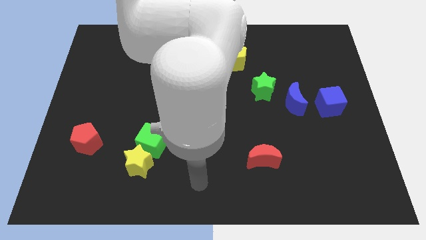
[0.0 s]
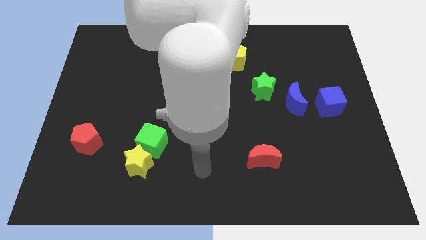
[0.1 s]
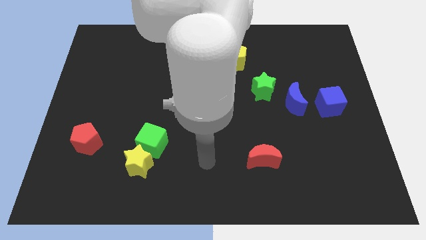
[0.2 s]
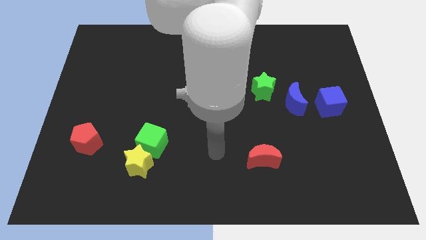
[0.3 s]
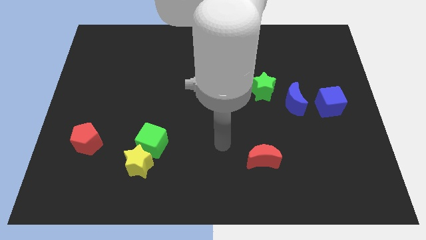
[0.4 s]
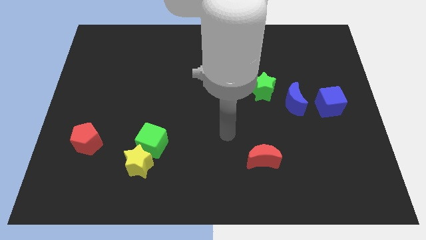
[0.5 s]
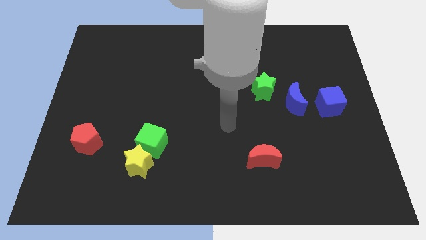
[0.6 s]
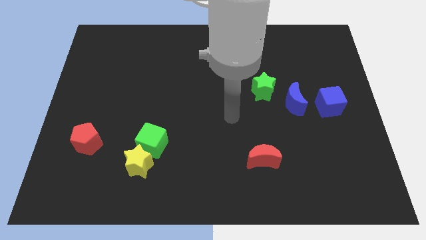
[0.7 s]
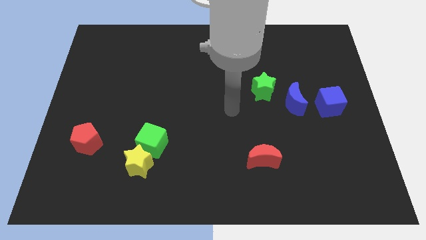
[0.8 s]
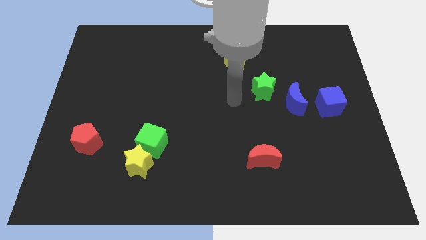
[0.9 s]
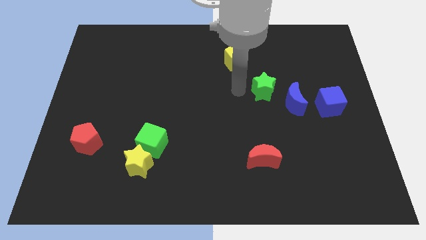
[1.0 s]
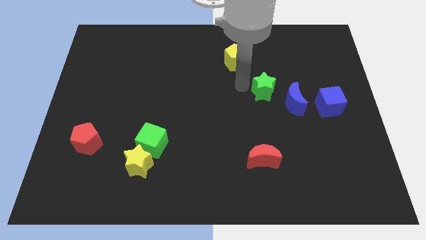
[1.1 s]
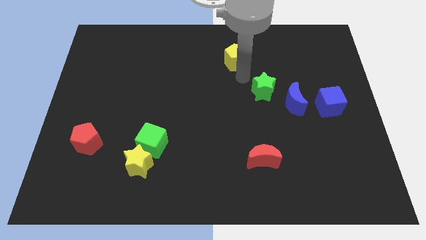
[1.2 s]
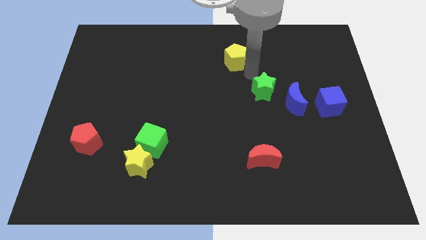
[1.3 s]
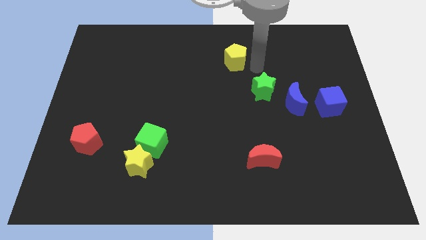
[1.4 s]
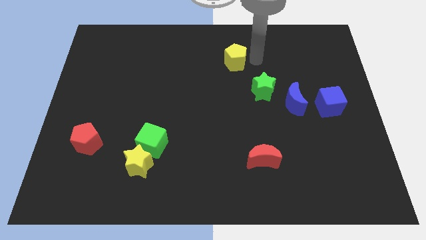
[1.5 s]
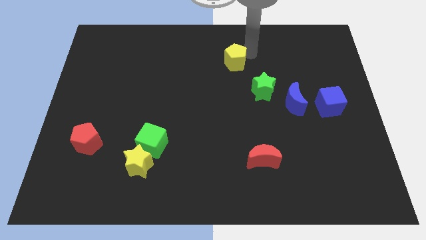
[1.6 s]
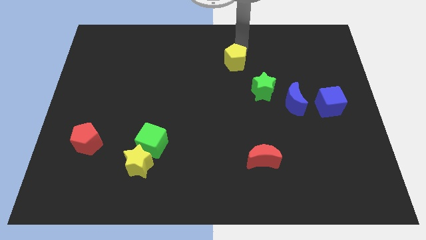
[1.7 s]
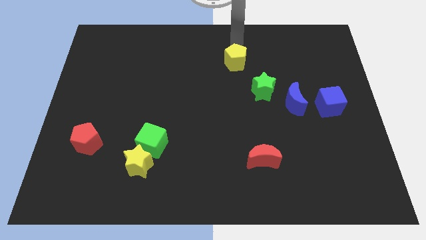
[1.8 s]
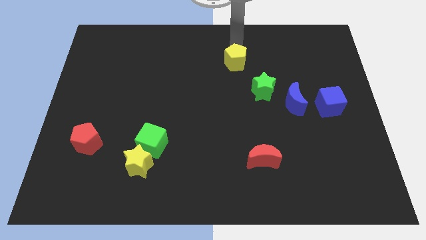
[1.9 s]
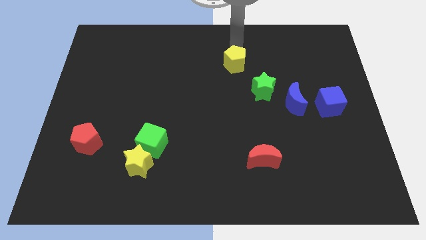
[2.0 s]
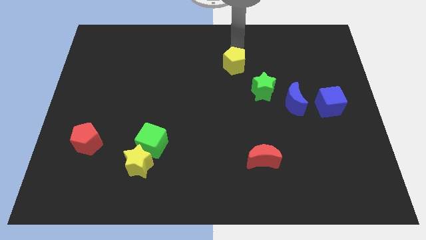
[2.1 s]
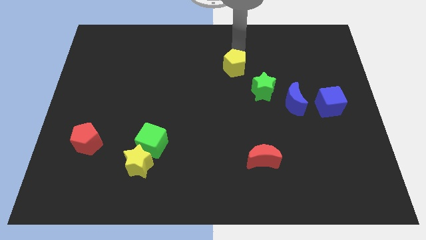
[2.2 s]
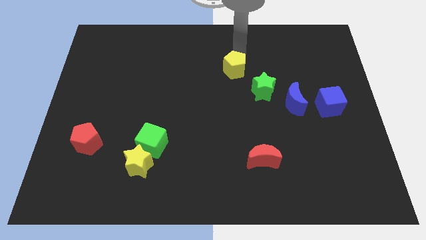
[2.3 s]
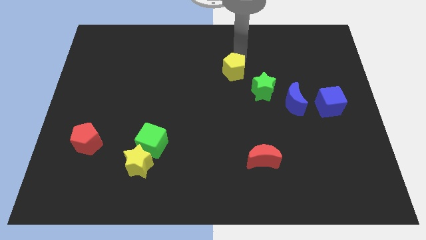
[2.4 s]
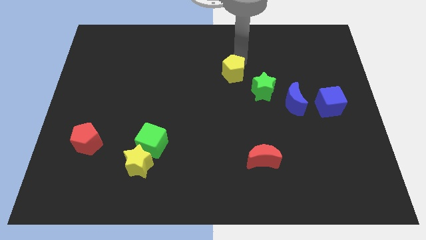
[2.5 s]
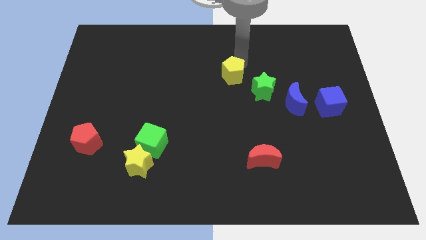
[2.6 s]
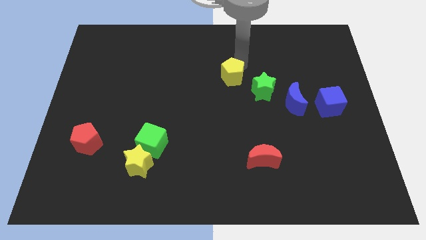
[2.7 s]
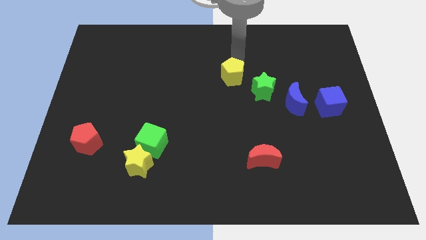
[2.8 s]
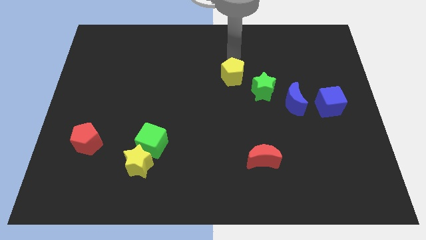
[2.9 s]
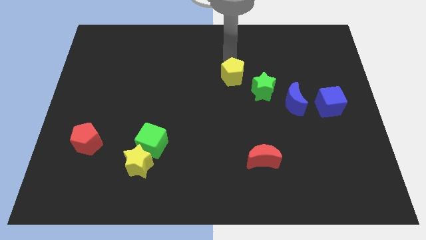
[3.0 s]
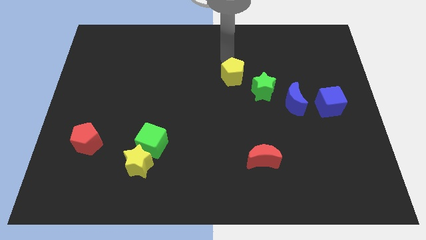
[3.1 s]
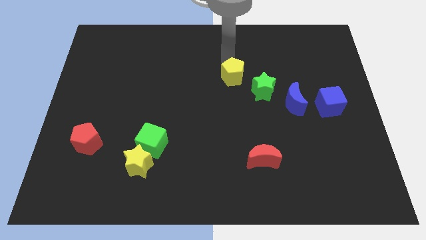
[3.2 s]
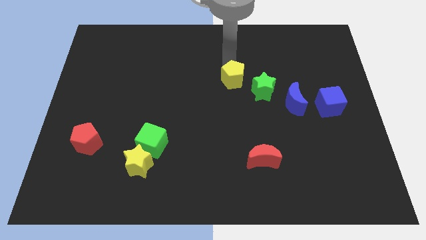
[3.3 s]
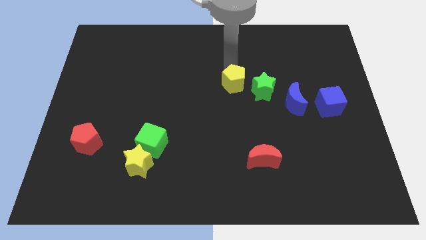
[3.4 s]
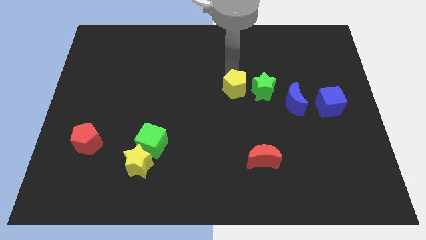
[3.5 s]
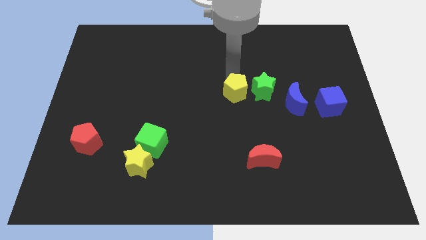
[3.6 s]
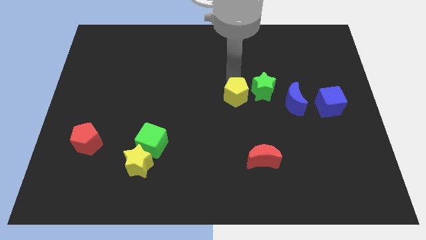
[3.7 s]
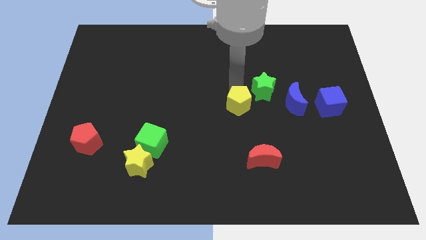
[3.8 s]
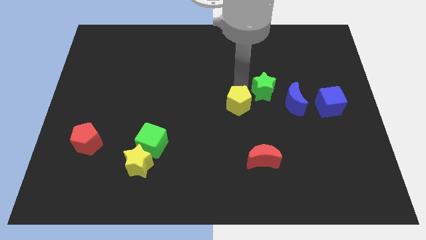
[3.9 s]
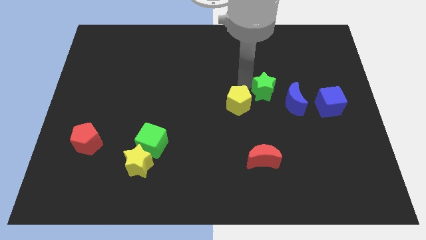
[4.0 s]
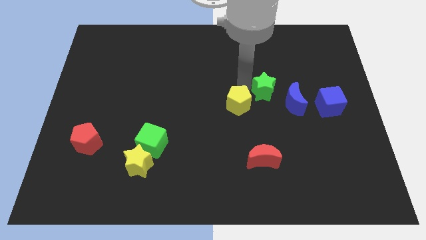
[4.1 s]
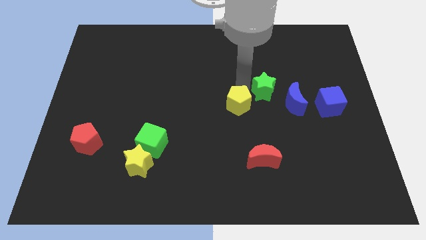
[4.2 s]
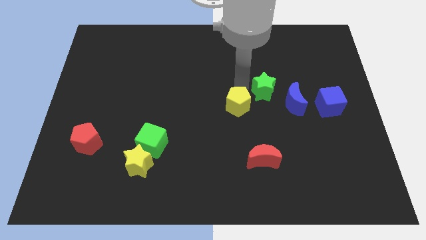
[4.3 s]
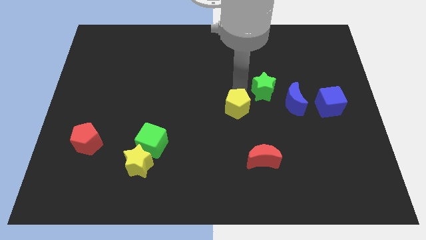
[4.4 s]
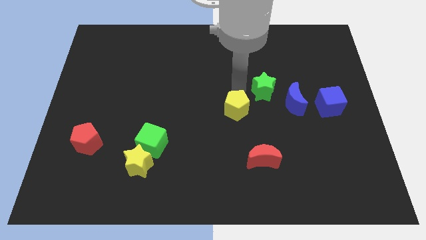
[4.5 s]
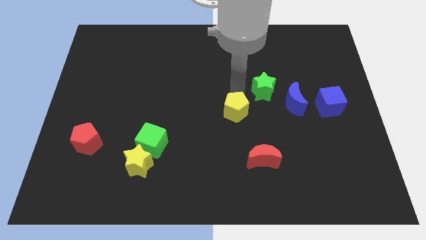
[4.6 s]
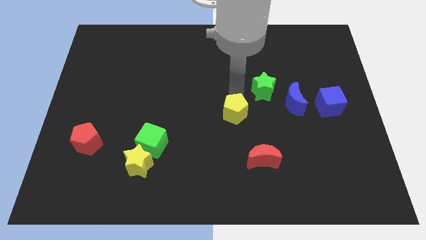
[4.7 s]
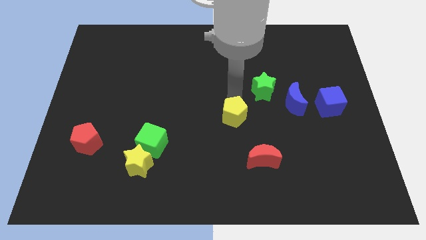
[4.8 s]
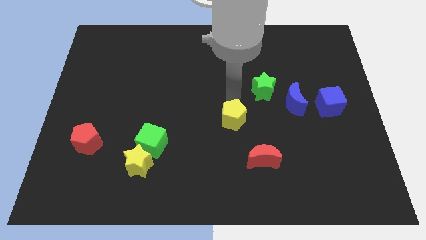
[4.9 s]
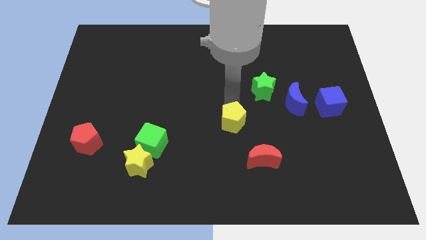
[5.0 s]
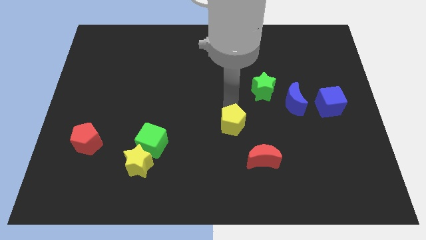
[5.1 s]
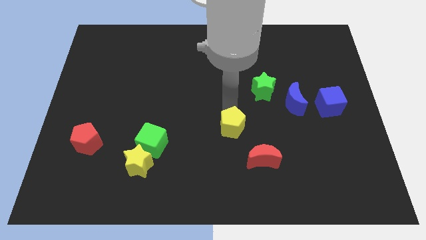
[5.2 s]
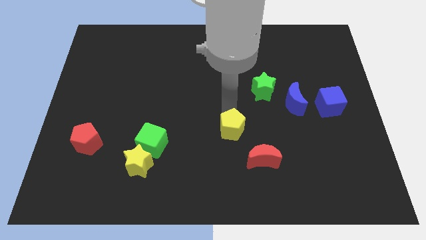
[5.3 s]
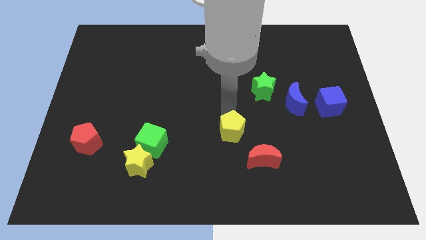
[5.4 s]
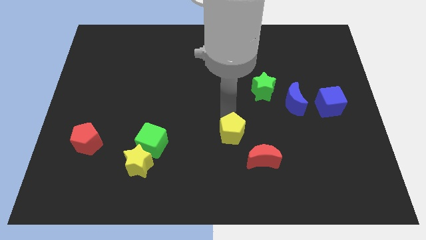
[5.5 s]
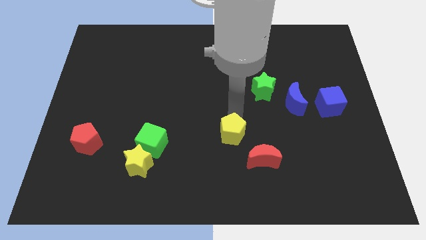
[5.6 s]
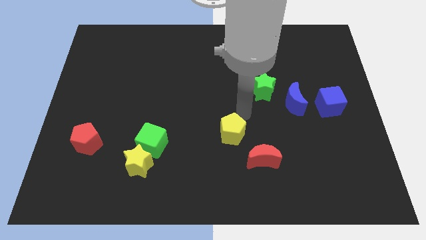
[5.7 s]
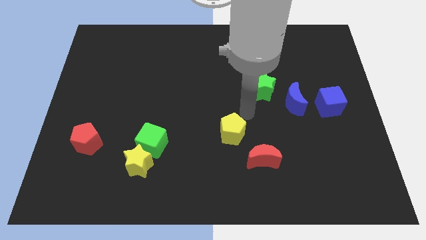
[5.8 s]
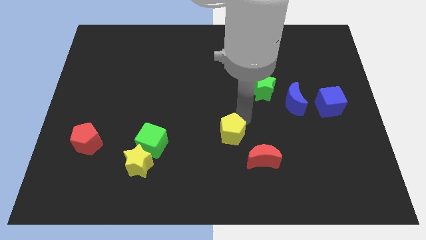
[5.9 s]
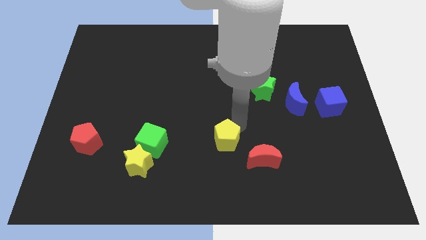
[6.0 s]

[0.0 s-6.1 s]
slide the yellow pentagon to the left of the red moon
